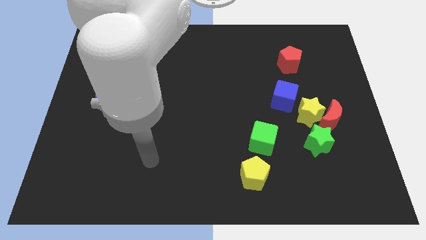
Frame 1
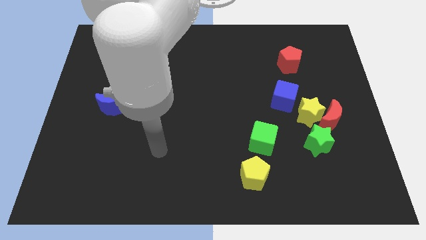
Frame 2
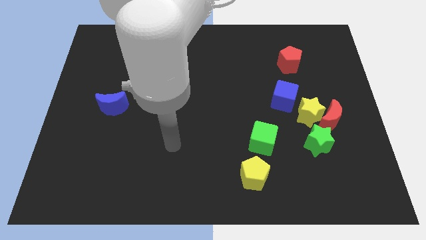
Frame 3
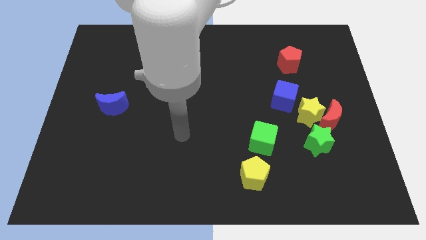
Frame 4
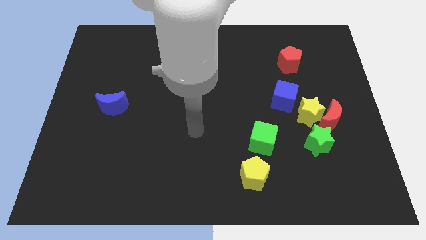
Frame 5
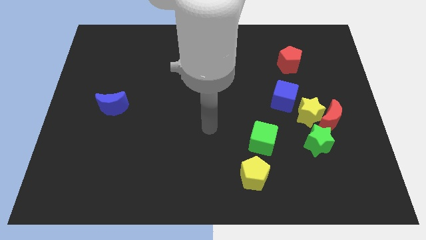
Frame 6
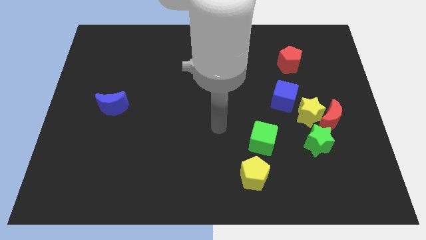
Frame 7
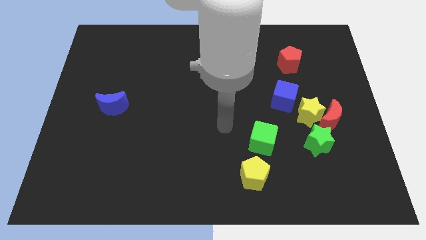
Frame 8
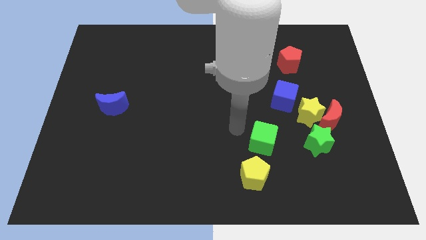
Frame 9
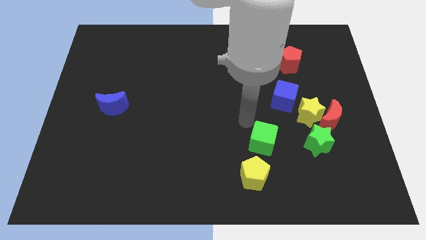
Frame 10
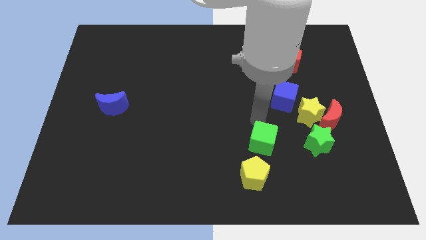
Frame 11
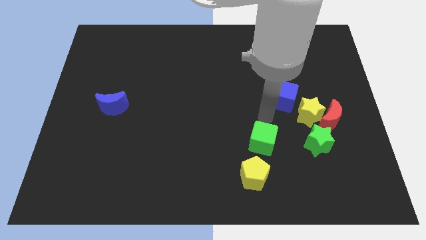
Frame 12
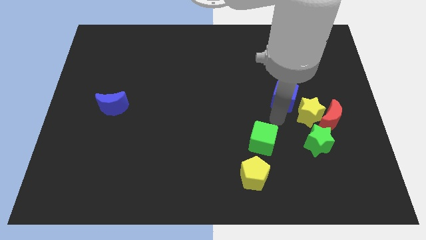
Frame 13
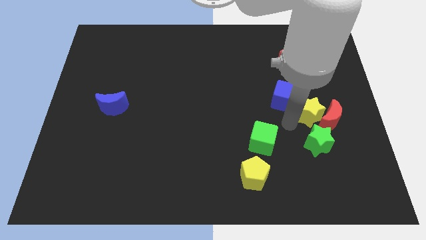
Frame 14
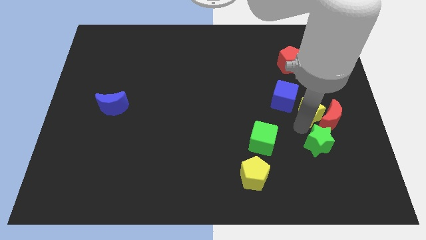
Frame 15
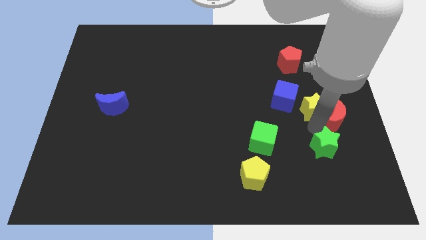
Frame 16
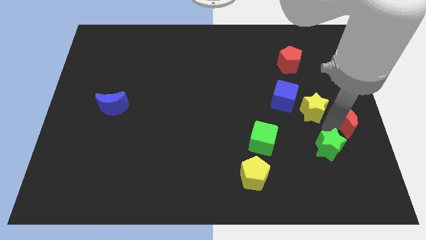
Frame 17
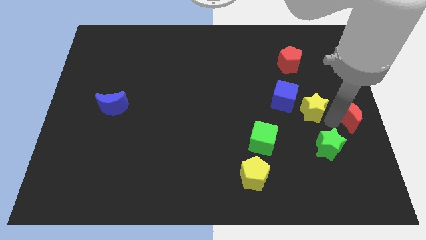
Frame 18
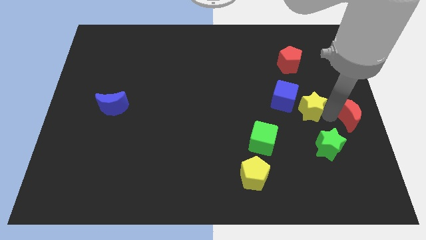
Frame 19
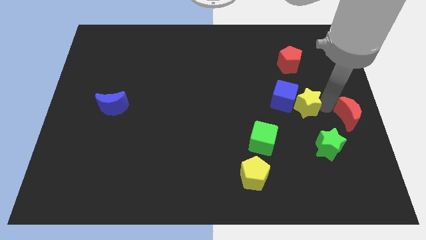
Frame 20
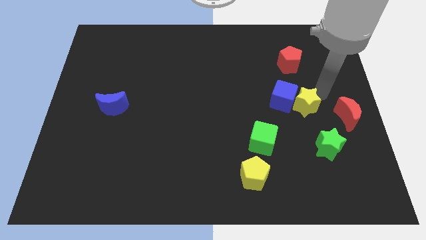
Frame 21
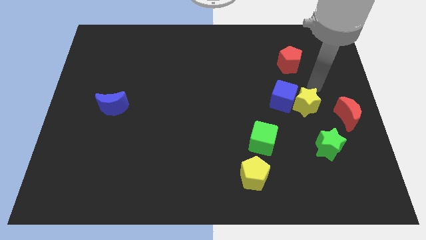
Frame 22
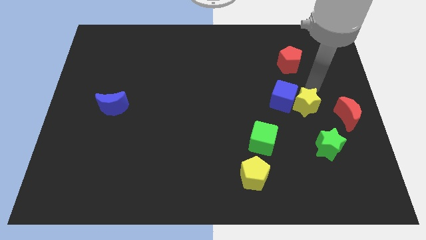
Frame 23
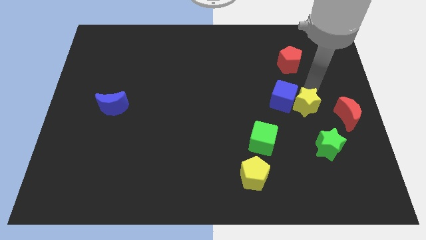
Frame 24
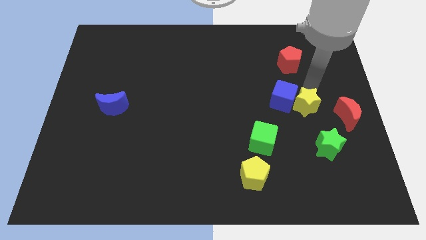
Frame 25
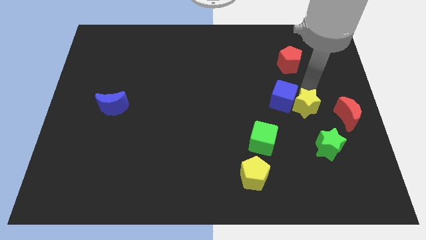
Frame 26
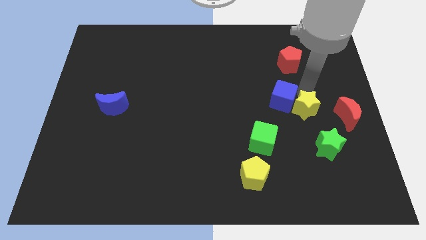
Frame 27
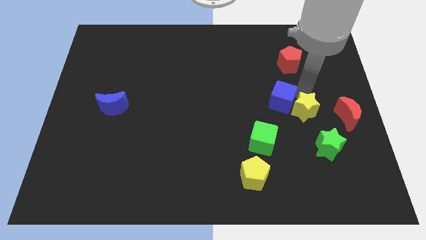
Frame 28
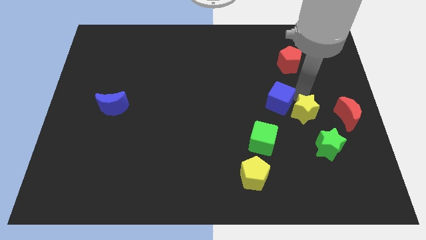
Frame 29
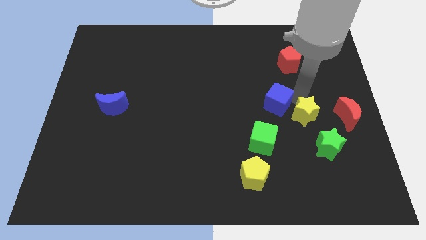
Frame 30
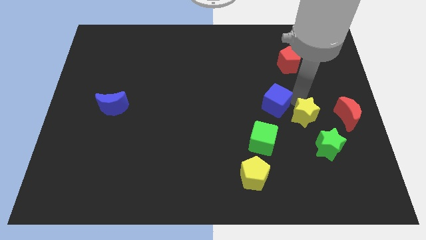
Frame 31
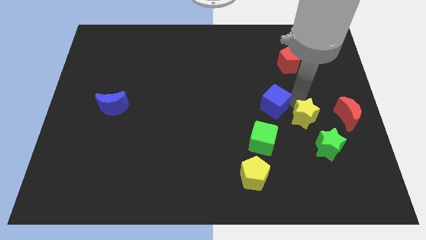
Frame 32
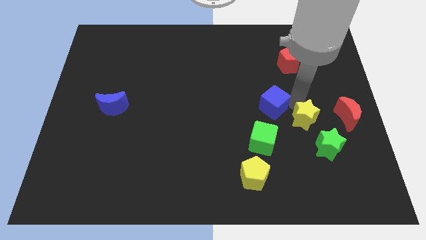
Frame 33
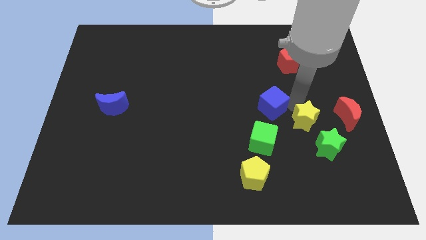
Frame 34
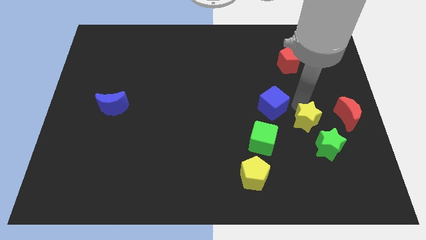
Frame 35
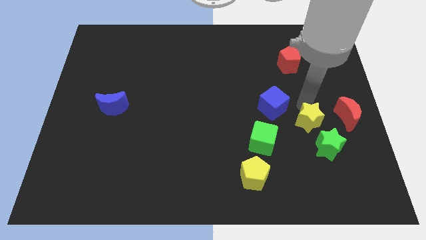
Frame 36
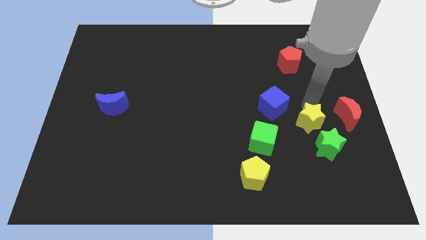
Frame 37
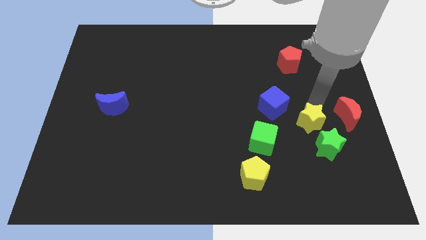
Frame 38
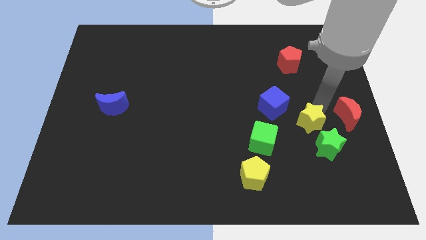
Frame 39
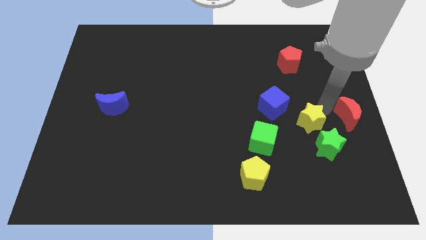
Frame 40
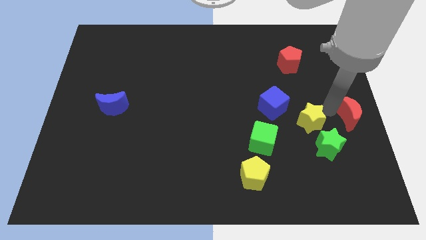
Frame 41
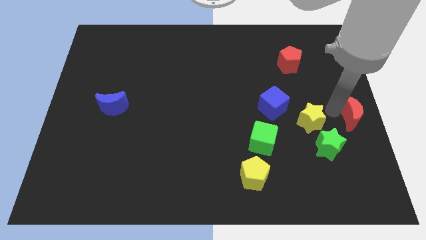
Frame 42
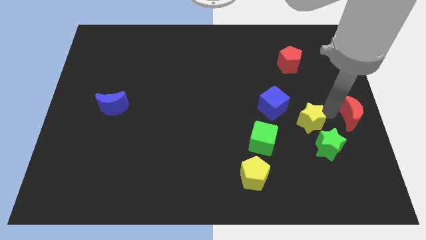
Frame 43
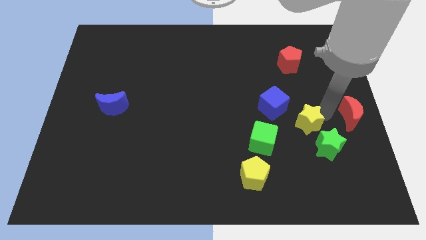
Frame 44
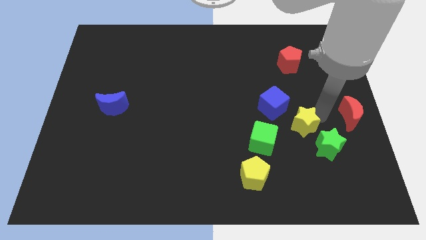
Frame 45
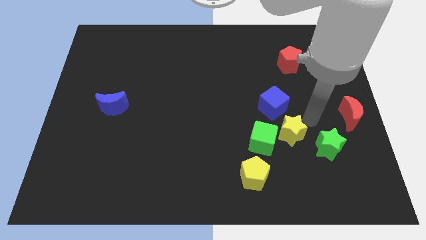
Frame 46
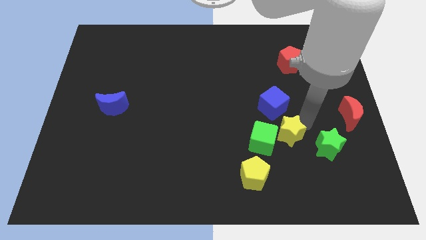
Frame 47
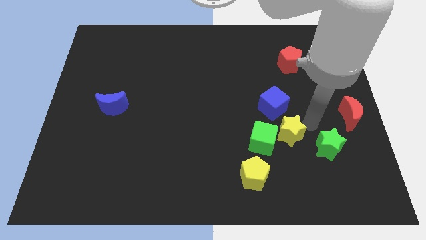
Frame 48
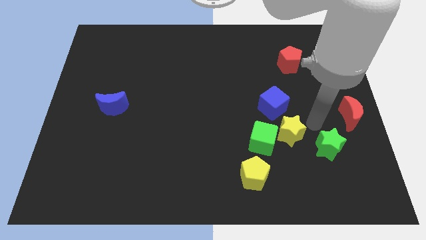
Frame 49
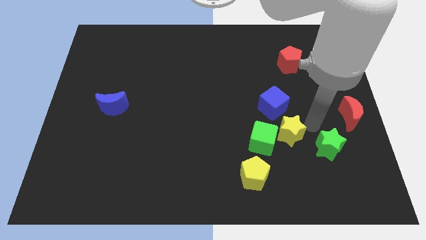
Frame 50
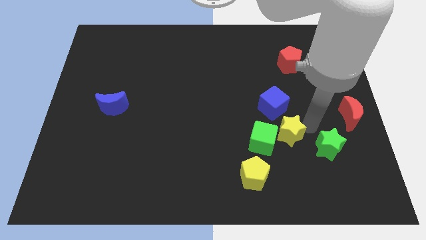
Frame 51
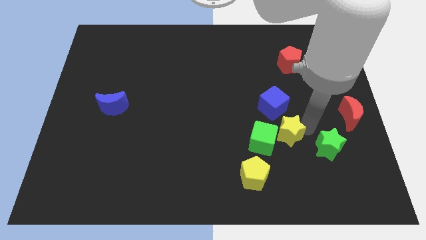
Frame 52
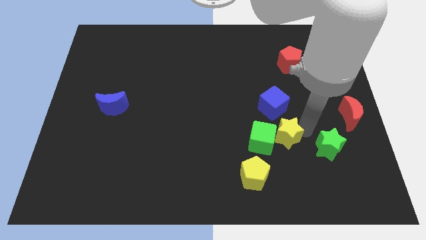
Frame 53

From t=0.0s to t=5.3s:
move the yellow star towards the green cube

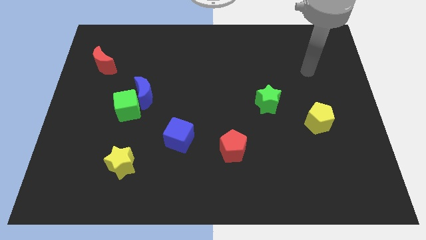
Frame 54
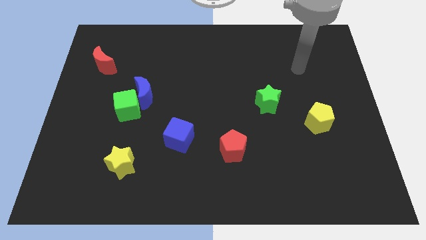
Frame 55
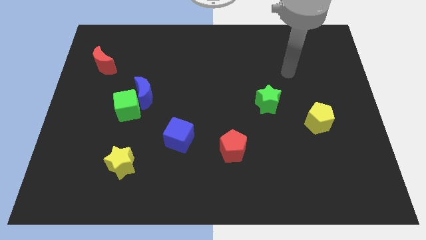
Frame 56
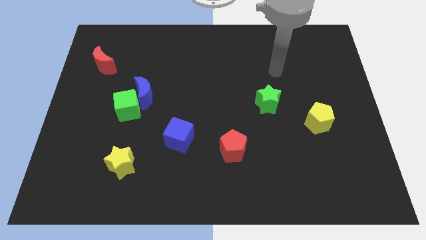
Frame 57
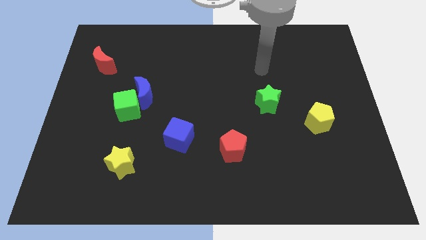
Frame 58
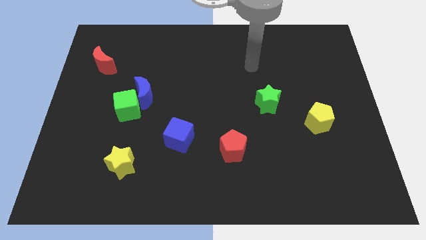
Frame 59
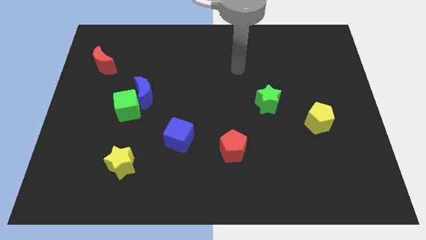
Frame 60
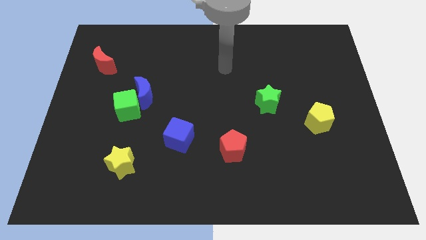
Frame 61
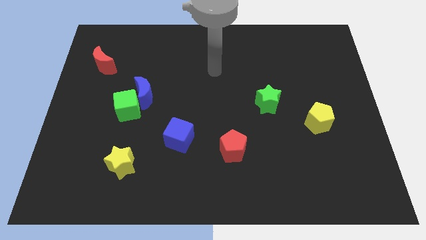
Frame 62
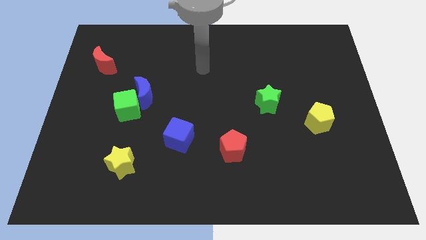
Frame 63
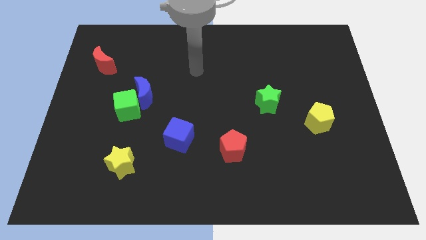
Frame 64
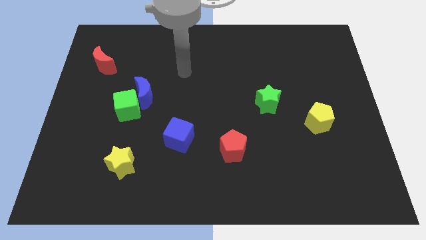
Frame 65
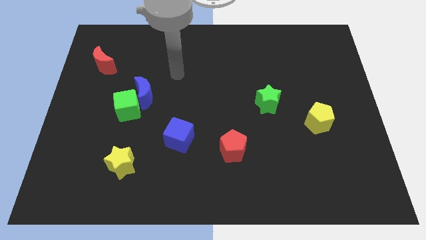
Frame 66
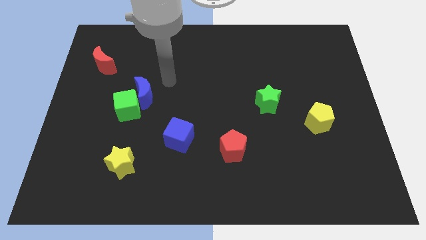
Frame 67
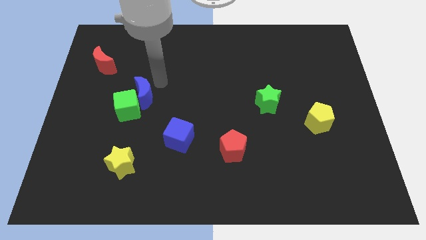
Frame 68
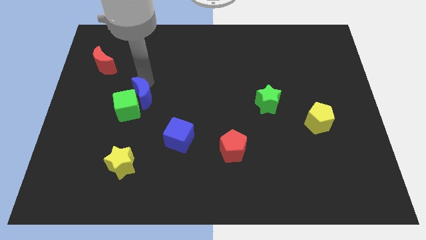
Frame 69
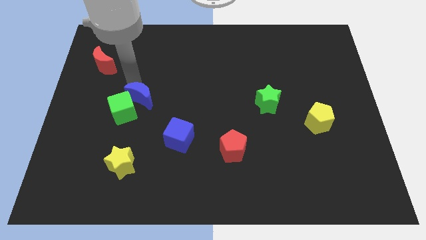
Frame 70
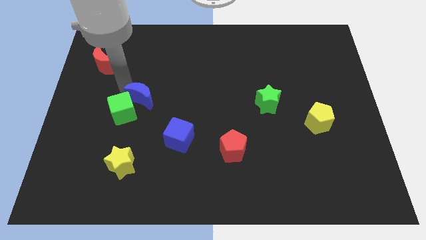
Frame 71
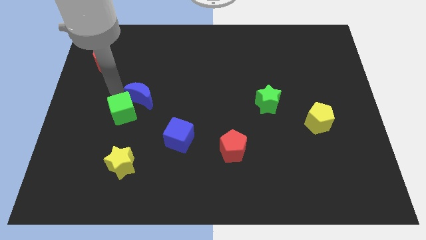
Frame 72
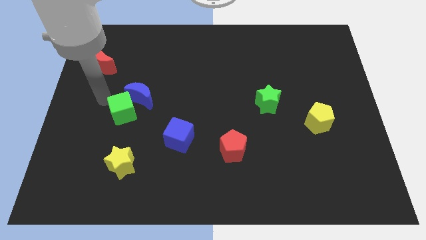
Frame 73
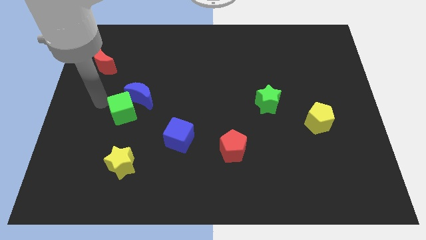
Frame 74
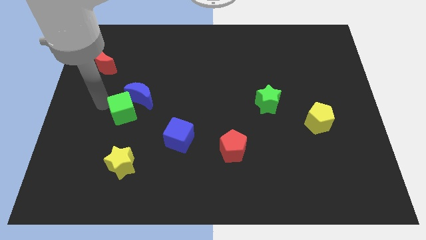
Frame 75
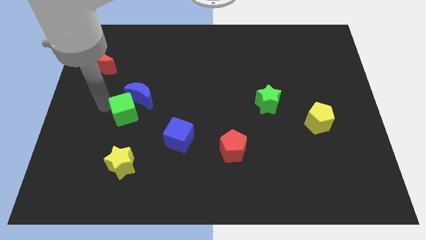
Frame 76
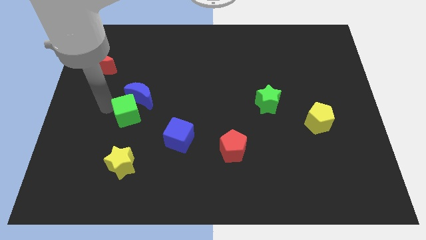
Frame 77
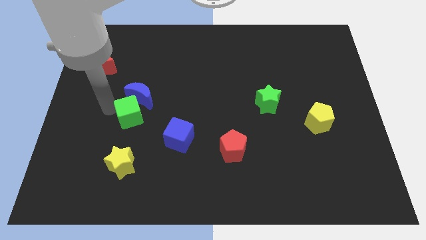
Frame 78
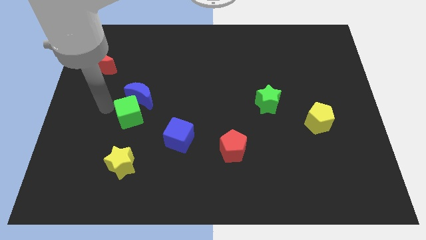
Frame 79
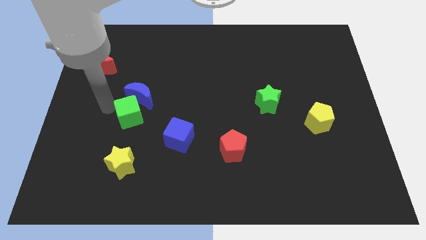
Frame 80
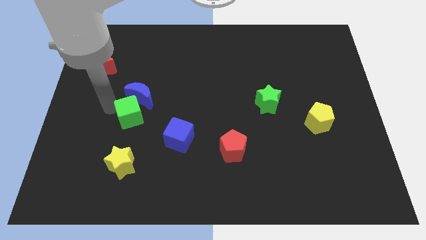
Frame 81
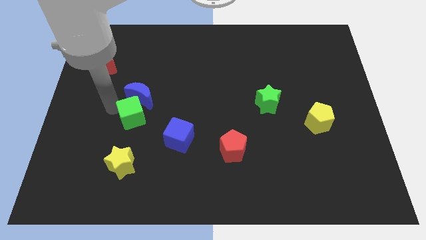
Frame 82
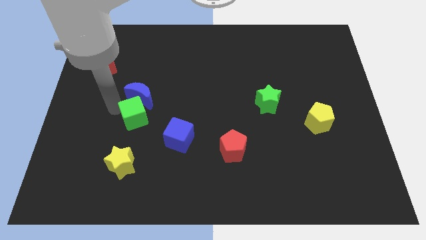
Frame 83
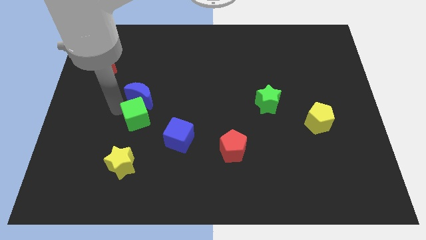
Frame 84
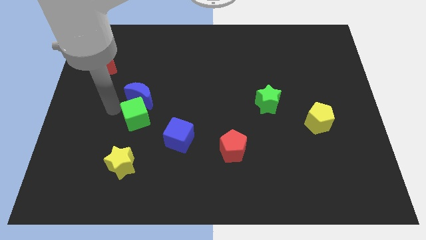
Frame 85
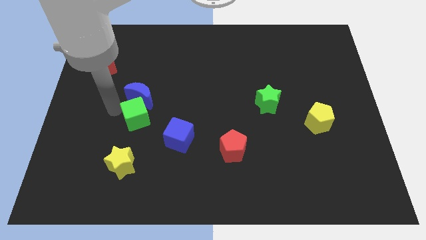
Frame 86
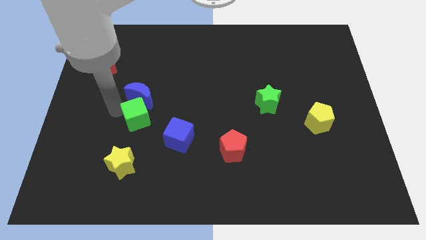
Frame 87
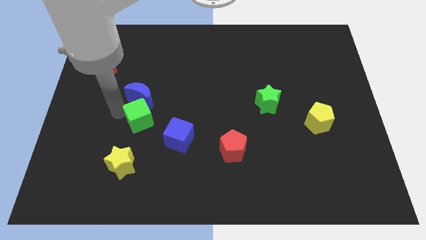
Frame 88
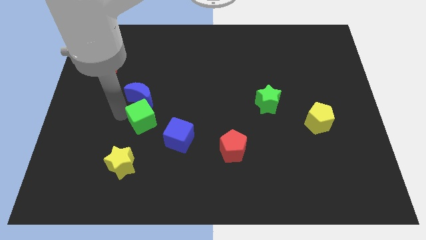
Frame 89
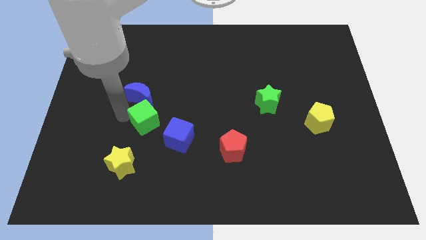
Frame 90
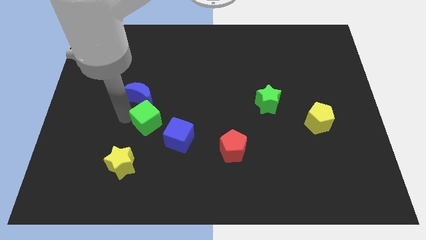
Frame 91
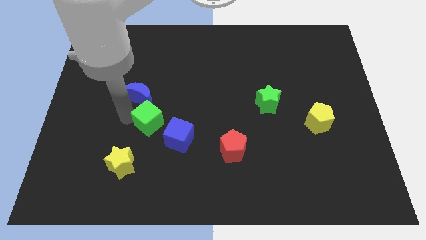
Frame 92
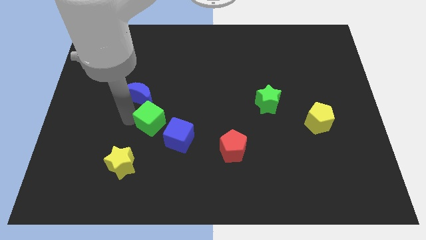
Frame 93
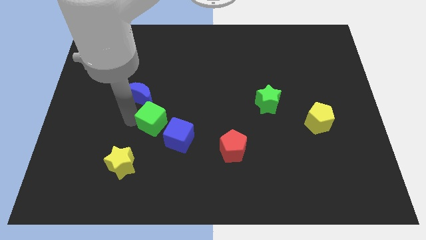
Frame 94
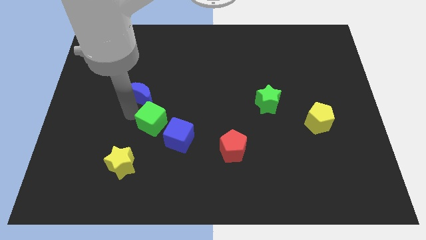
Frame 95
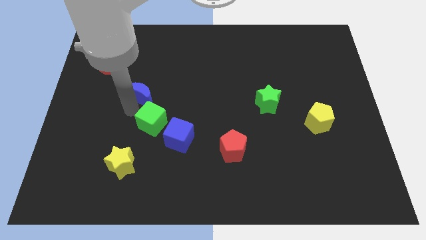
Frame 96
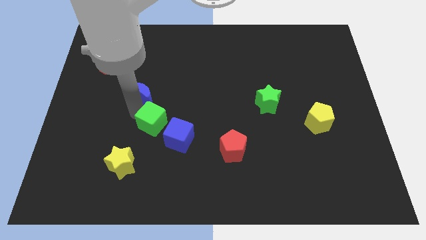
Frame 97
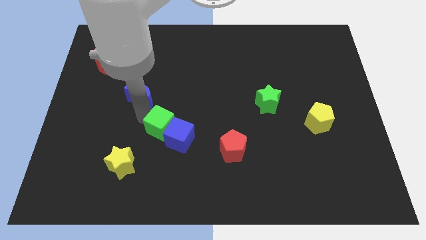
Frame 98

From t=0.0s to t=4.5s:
put the green cube close to the blue cube
